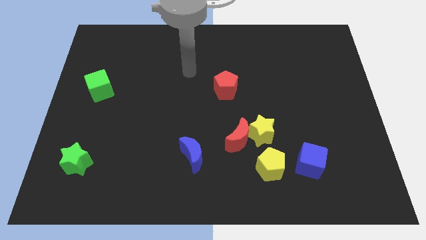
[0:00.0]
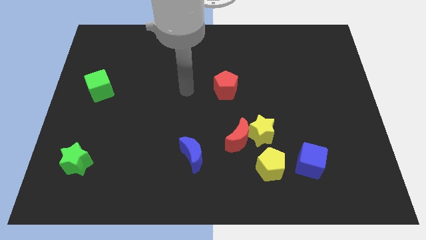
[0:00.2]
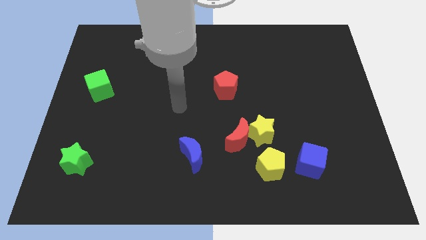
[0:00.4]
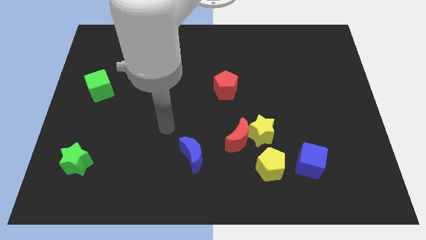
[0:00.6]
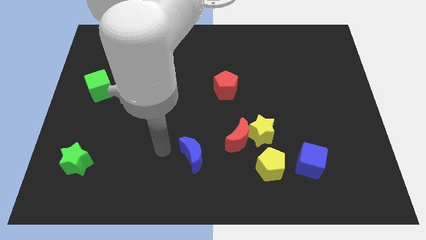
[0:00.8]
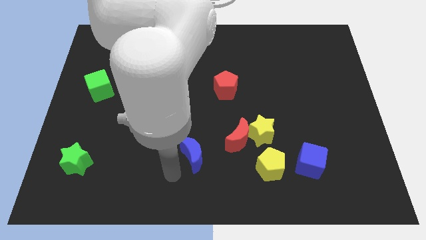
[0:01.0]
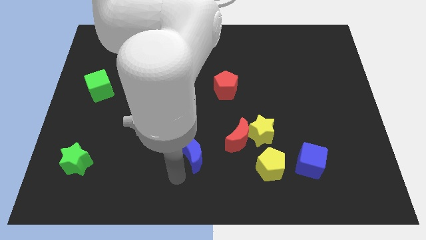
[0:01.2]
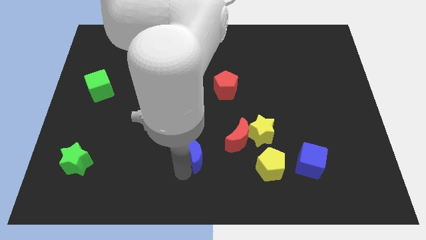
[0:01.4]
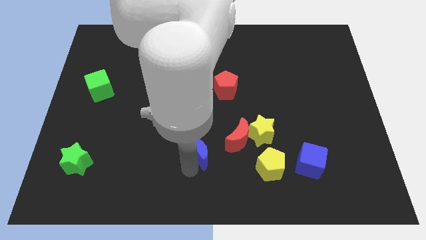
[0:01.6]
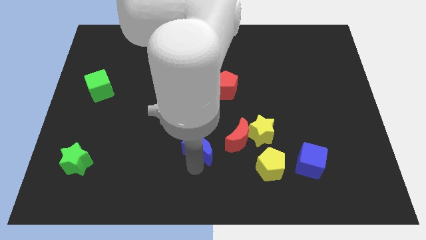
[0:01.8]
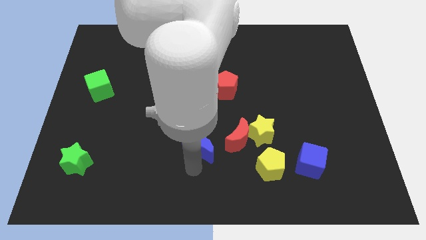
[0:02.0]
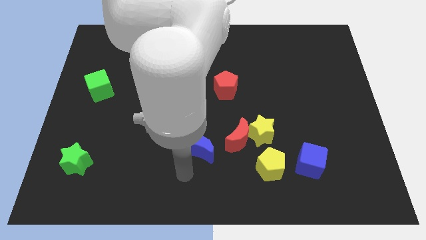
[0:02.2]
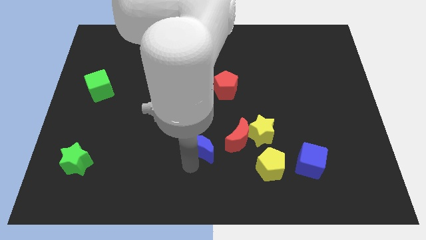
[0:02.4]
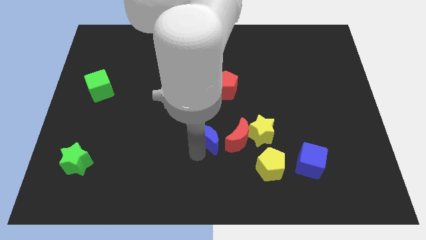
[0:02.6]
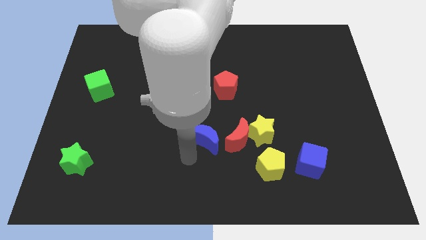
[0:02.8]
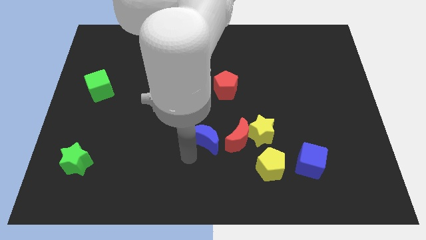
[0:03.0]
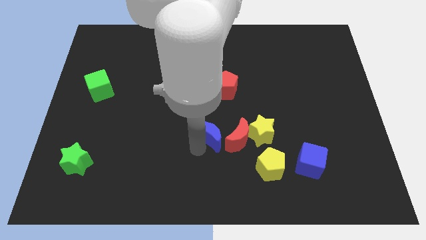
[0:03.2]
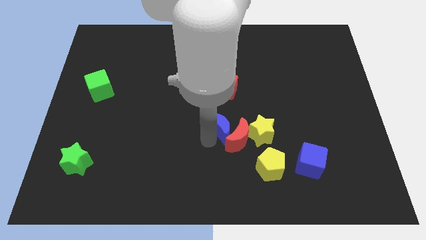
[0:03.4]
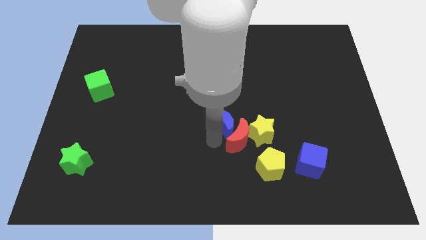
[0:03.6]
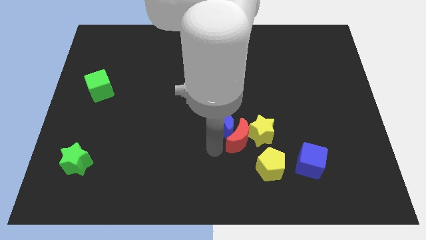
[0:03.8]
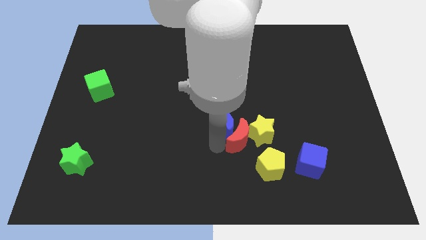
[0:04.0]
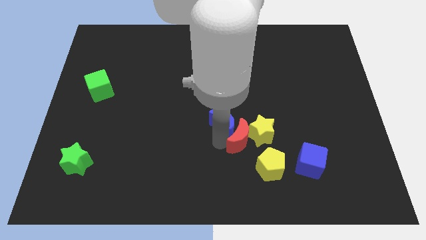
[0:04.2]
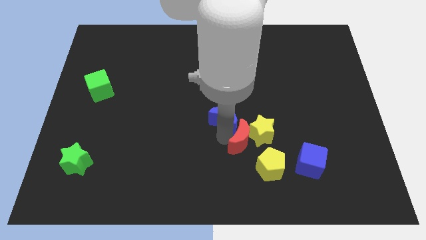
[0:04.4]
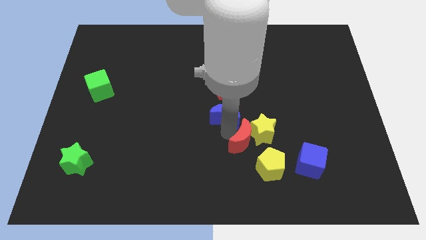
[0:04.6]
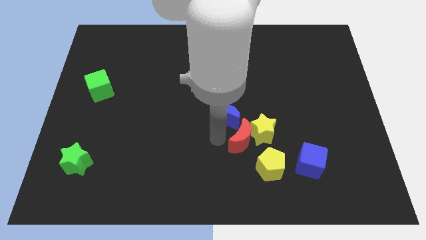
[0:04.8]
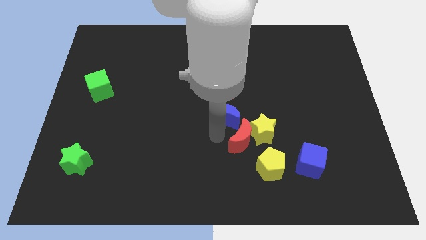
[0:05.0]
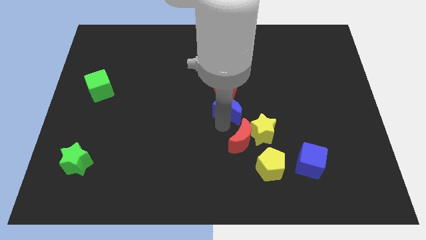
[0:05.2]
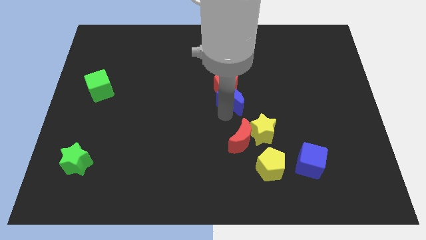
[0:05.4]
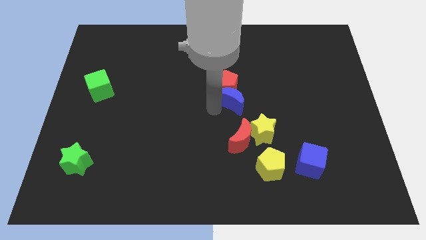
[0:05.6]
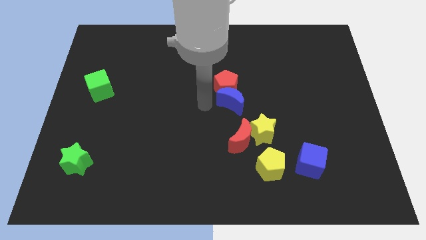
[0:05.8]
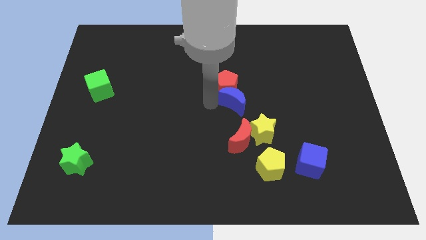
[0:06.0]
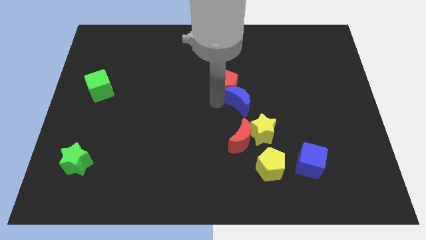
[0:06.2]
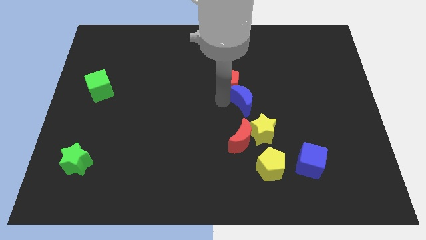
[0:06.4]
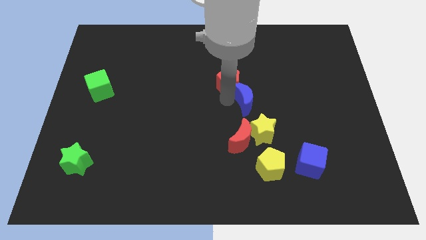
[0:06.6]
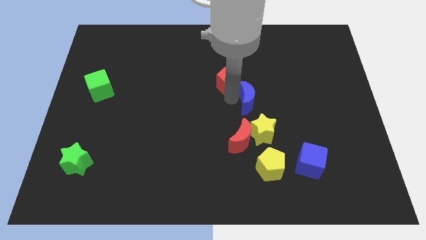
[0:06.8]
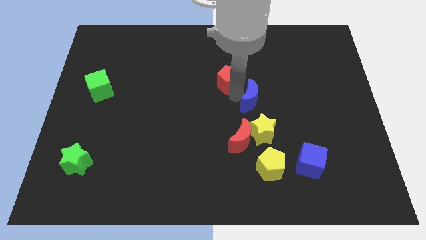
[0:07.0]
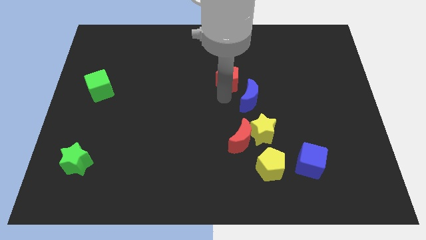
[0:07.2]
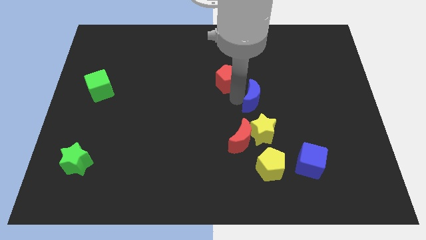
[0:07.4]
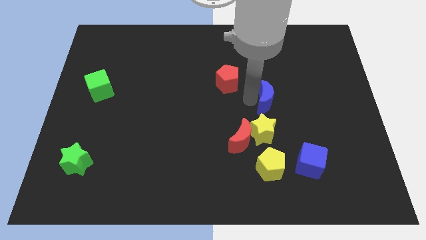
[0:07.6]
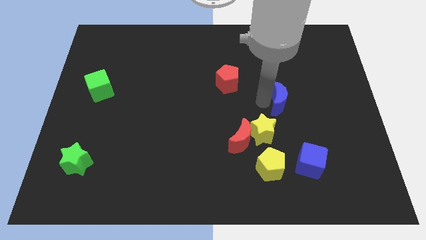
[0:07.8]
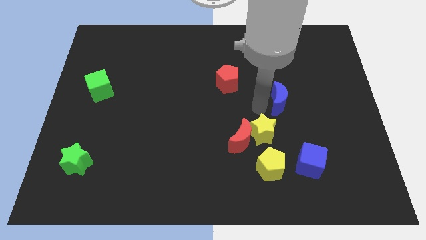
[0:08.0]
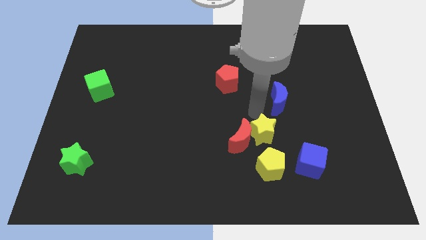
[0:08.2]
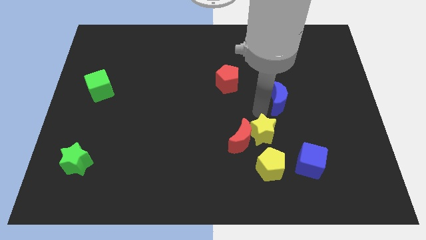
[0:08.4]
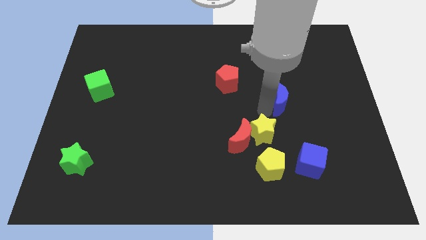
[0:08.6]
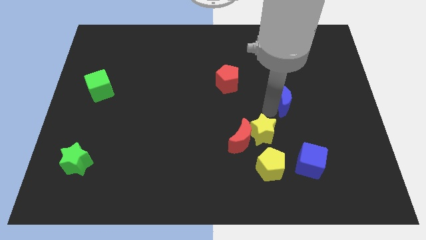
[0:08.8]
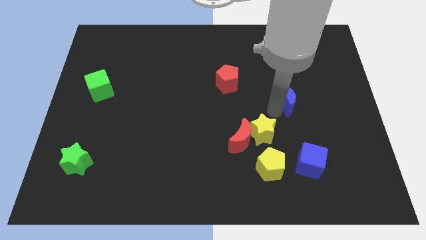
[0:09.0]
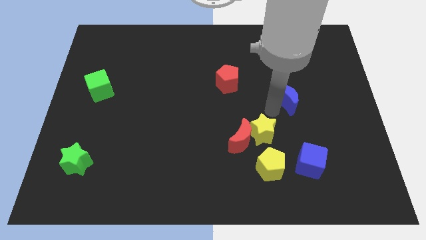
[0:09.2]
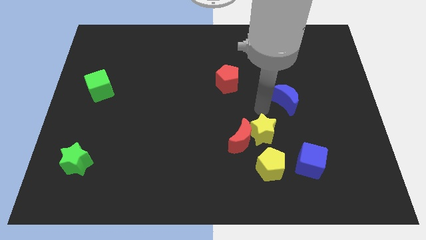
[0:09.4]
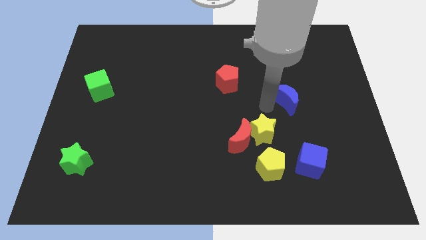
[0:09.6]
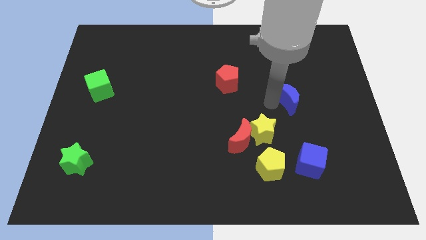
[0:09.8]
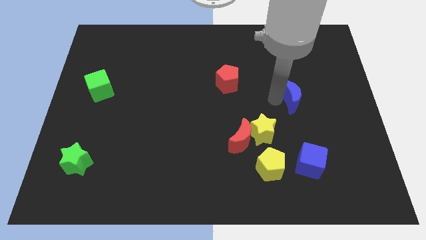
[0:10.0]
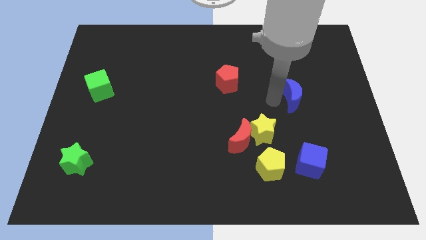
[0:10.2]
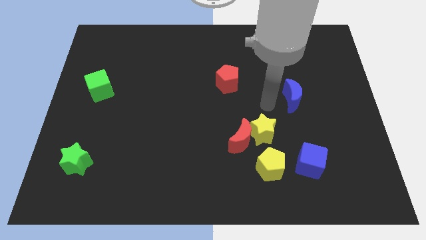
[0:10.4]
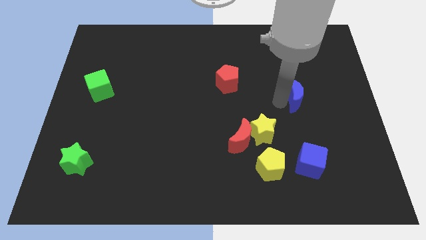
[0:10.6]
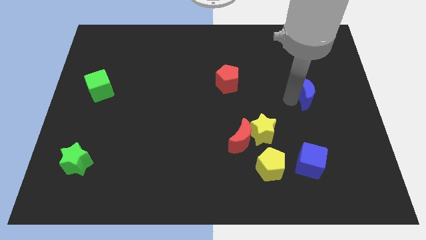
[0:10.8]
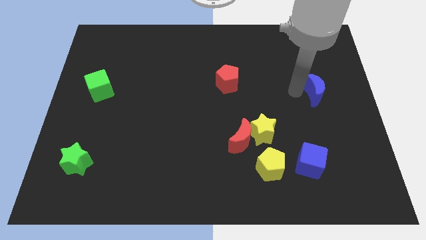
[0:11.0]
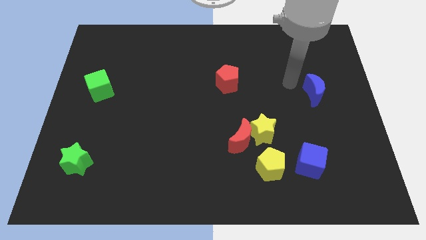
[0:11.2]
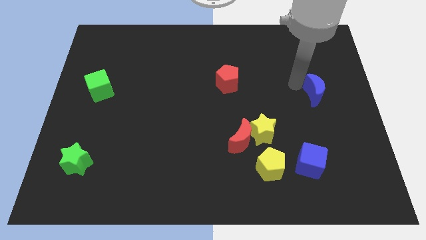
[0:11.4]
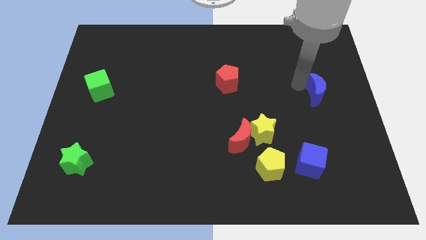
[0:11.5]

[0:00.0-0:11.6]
slide the blue moon to the center right
